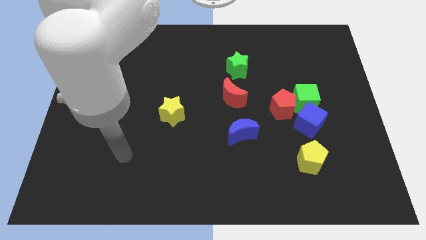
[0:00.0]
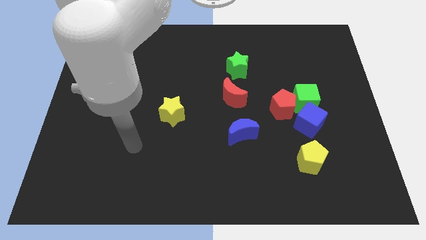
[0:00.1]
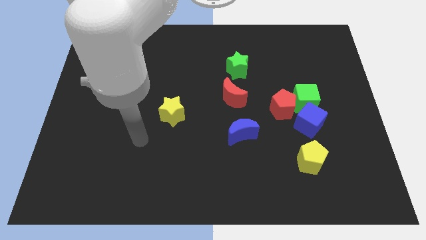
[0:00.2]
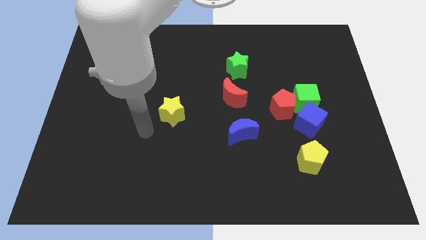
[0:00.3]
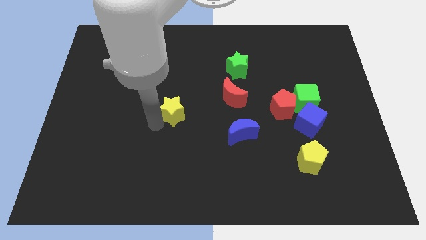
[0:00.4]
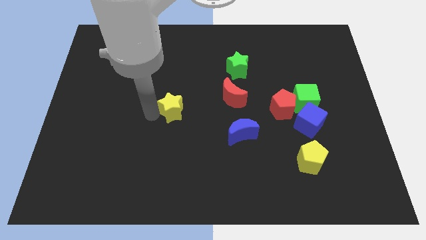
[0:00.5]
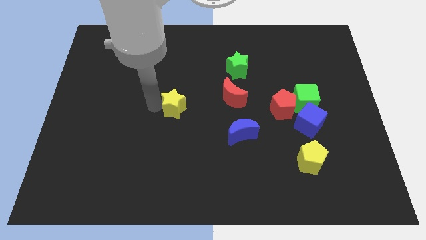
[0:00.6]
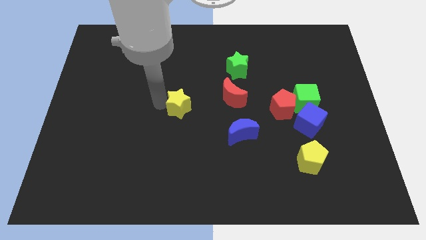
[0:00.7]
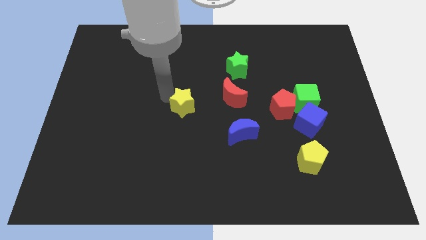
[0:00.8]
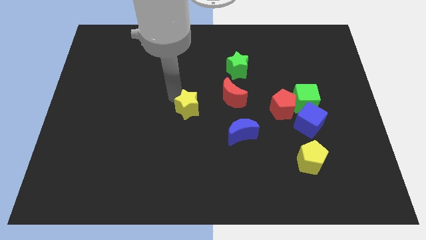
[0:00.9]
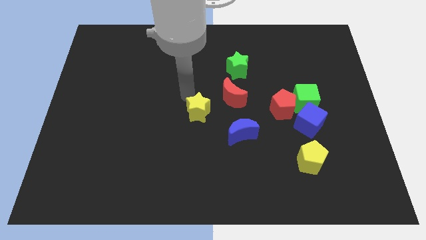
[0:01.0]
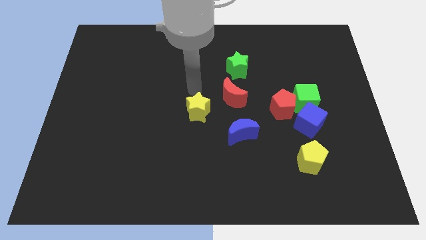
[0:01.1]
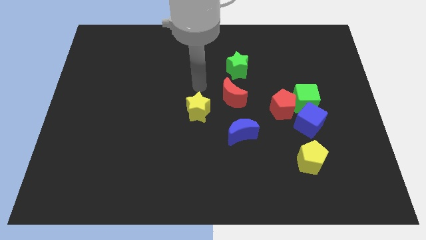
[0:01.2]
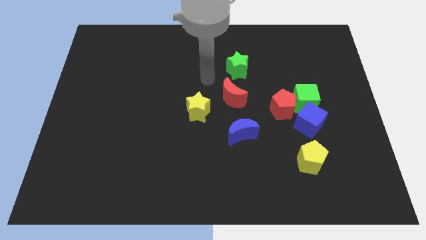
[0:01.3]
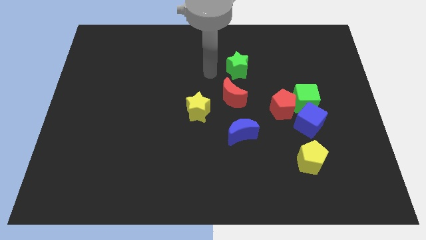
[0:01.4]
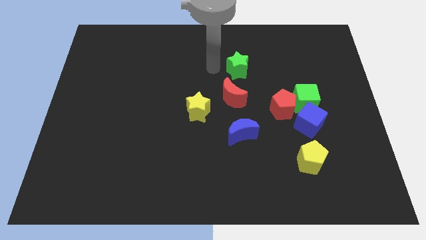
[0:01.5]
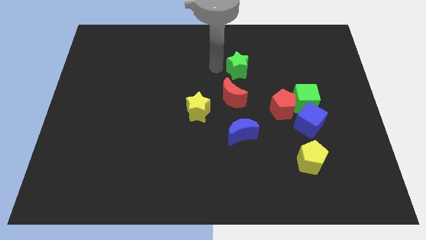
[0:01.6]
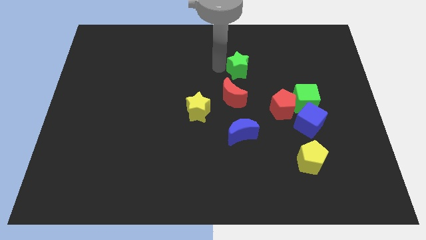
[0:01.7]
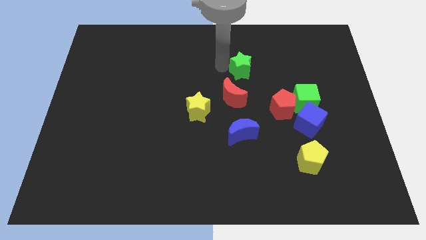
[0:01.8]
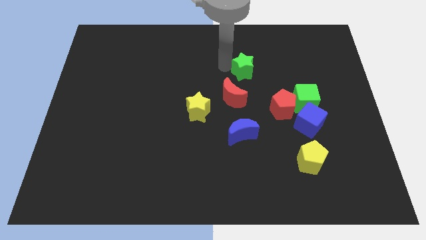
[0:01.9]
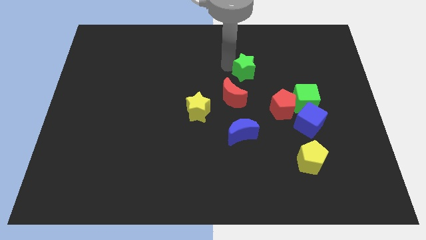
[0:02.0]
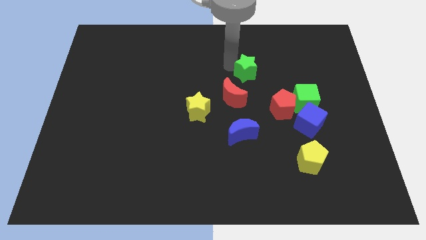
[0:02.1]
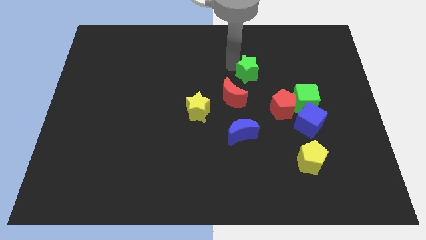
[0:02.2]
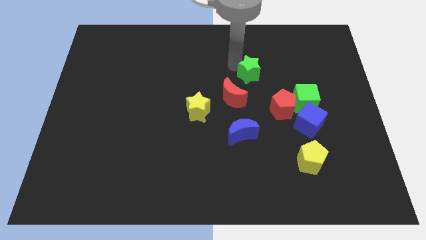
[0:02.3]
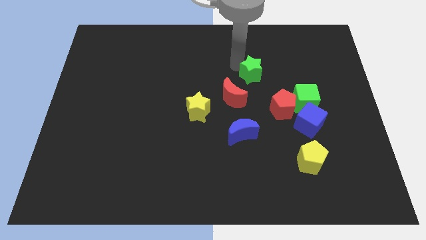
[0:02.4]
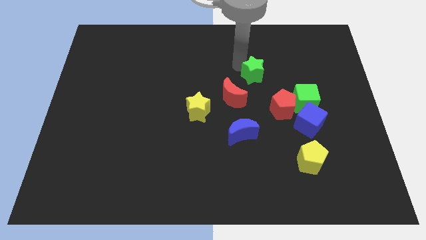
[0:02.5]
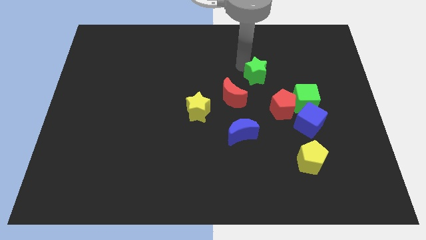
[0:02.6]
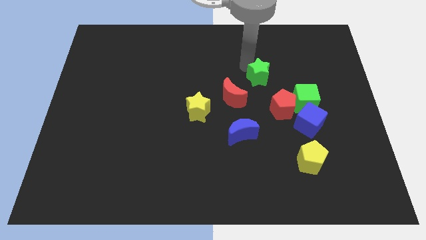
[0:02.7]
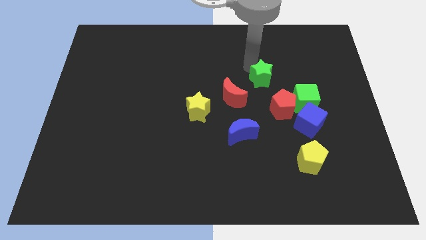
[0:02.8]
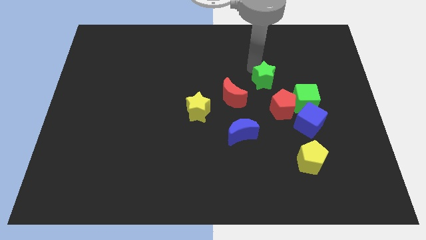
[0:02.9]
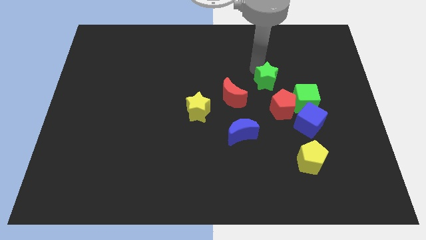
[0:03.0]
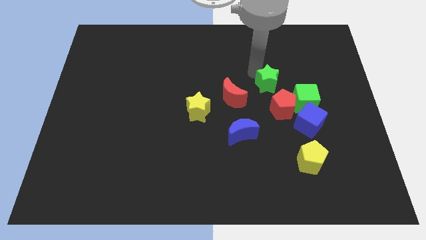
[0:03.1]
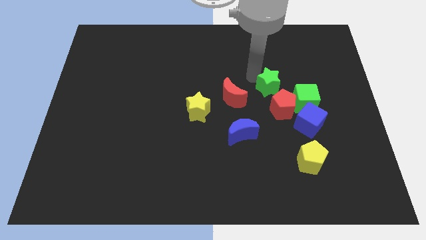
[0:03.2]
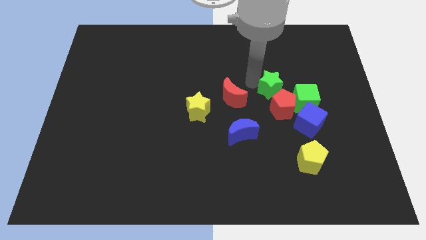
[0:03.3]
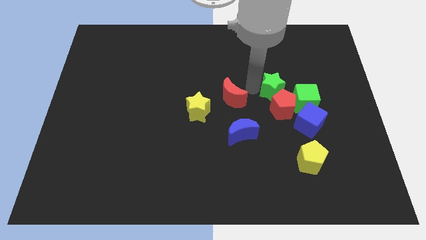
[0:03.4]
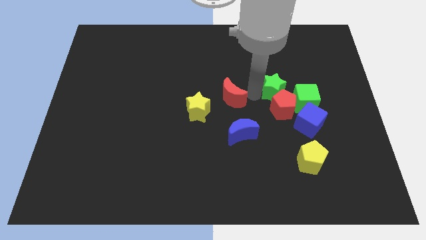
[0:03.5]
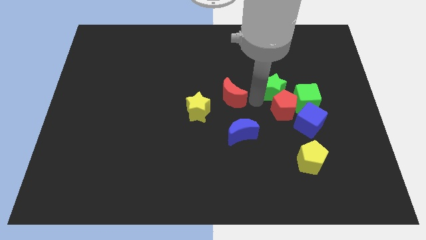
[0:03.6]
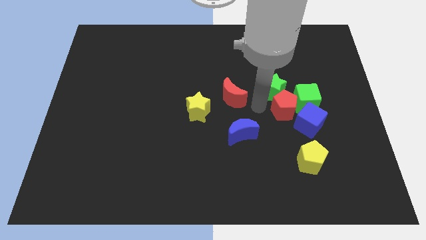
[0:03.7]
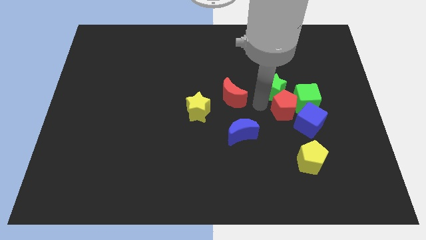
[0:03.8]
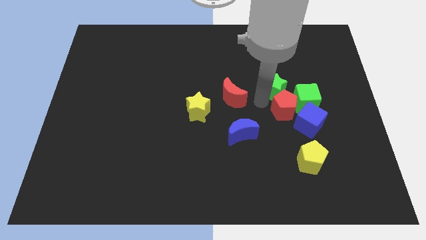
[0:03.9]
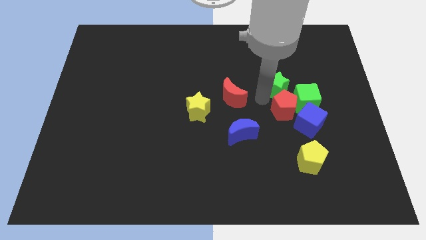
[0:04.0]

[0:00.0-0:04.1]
slide the green star right slightly

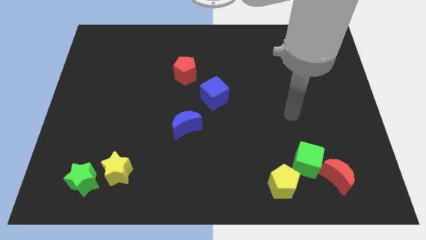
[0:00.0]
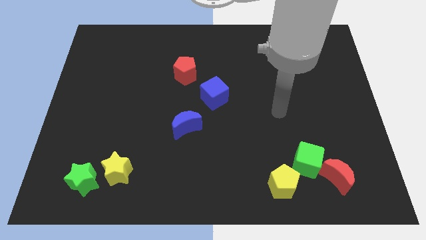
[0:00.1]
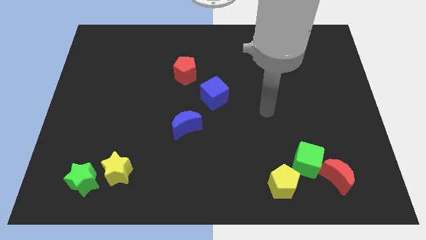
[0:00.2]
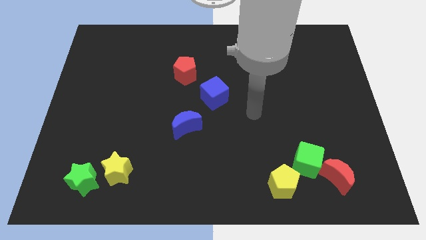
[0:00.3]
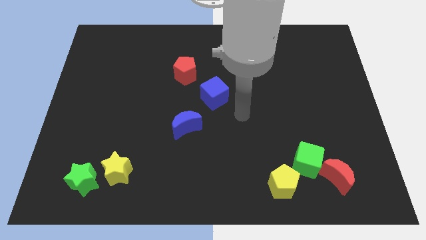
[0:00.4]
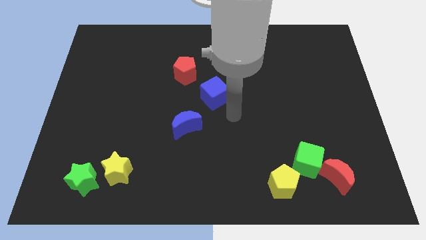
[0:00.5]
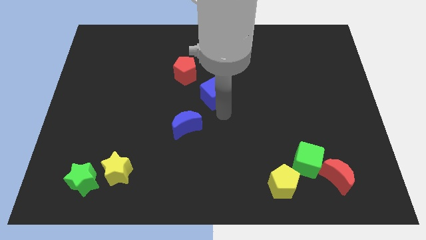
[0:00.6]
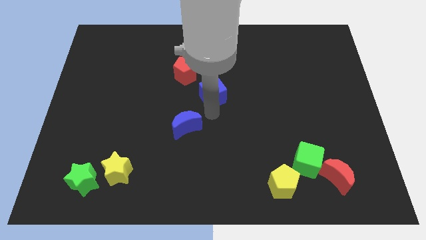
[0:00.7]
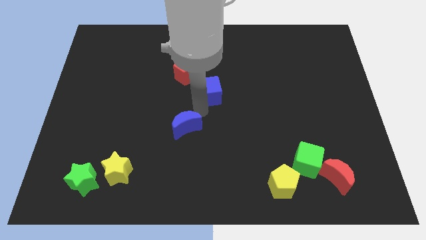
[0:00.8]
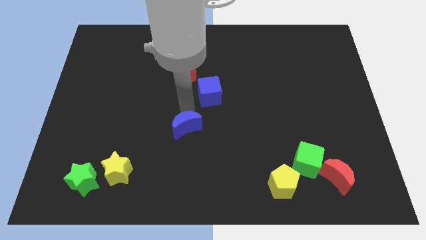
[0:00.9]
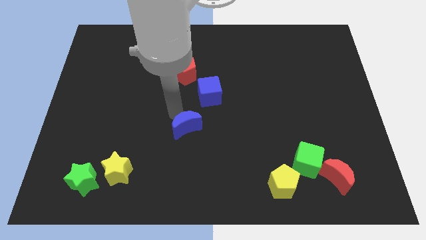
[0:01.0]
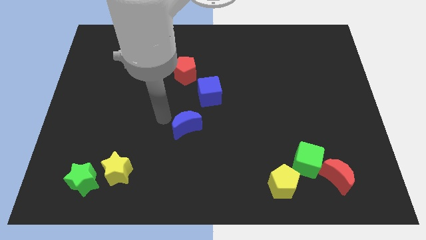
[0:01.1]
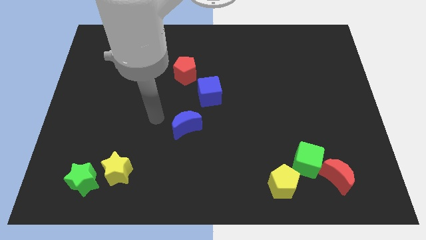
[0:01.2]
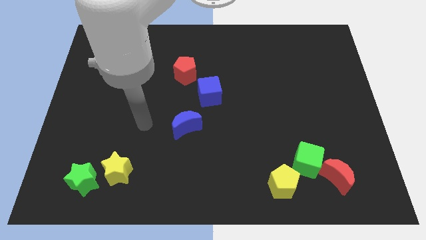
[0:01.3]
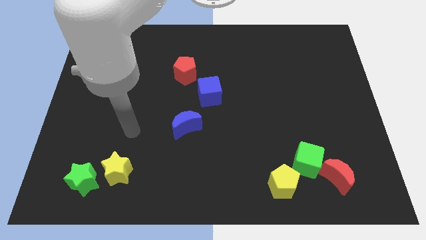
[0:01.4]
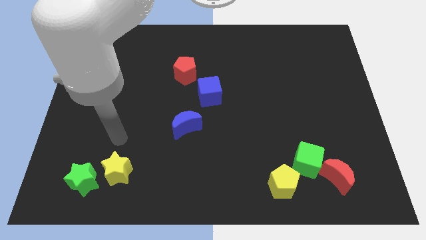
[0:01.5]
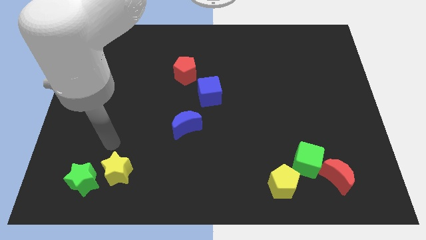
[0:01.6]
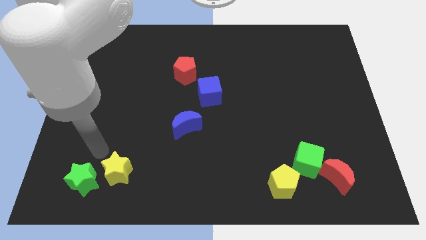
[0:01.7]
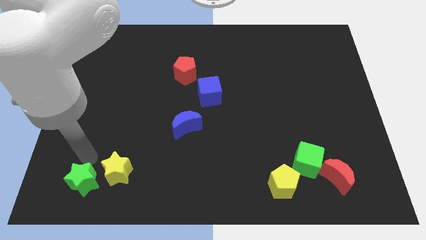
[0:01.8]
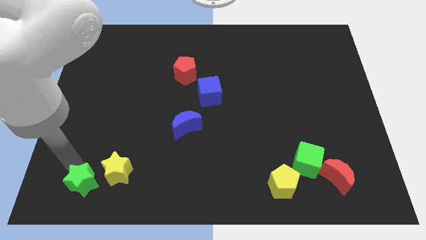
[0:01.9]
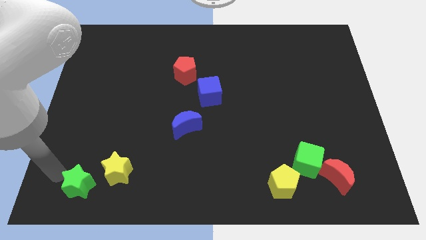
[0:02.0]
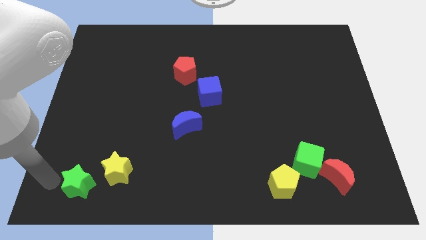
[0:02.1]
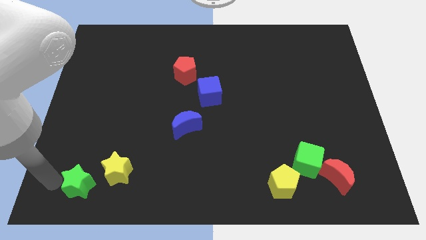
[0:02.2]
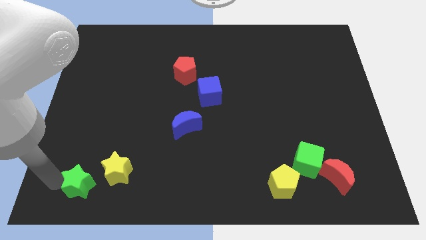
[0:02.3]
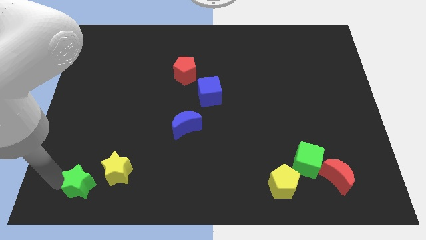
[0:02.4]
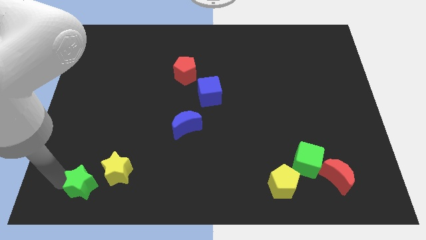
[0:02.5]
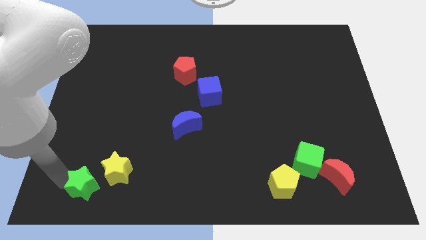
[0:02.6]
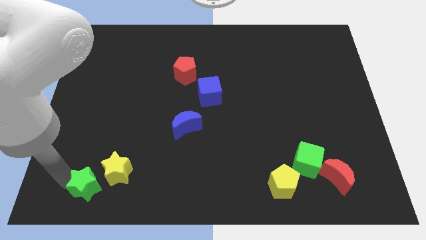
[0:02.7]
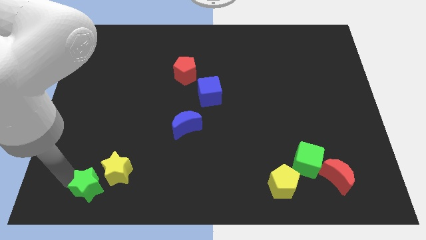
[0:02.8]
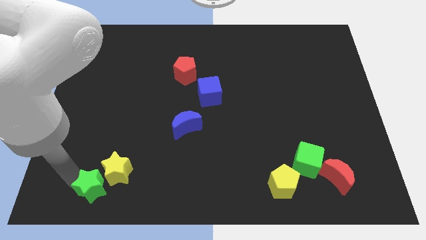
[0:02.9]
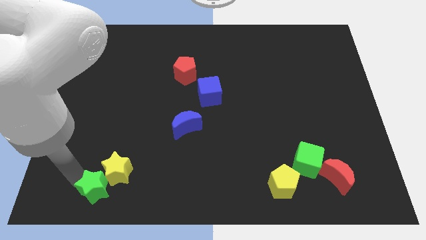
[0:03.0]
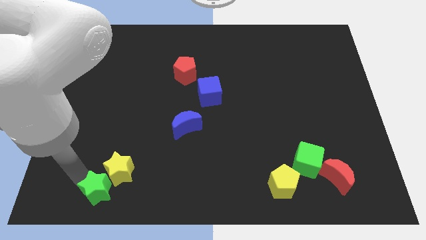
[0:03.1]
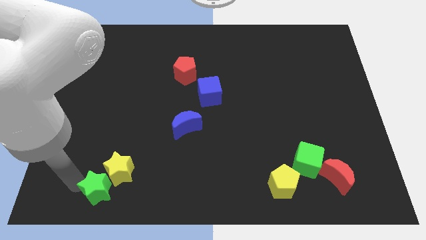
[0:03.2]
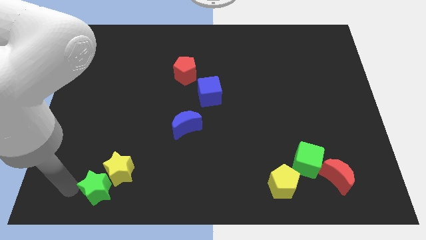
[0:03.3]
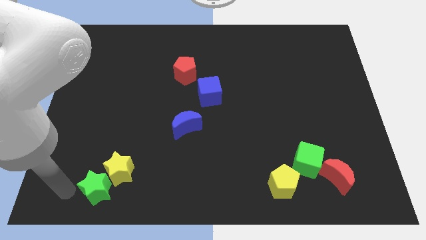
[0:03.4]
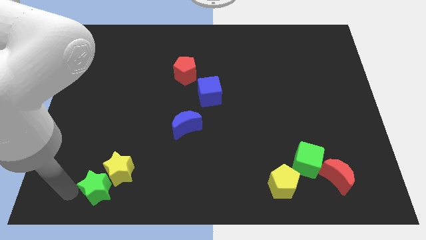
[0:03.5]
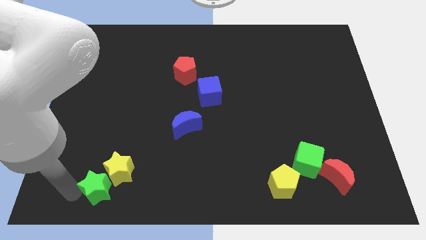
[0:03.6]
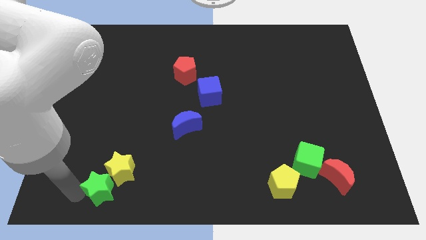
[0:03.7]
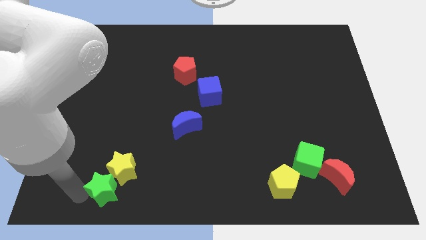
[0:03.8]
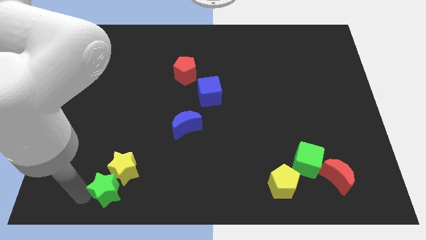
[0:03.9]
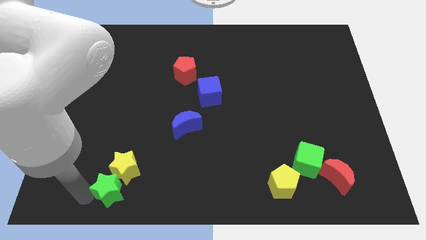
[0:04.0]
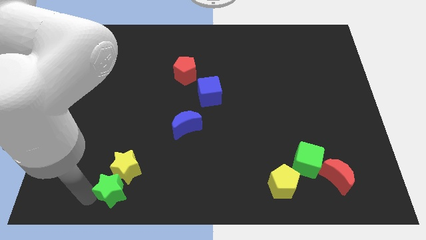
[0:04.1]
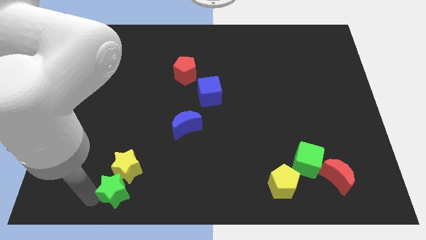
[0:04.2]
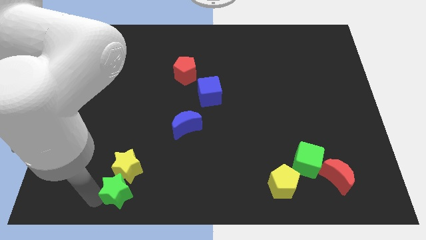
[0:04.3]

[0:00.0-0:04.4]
slide the green star to the right a little
